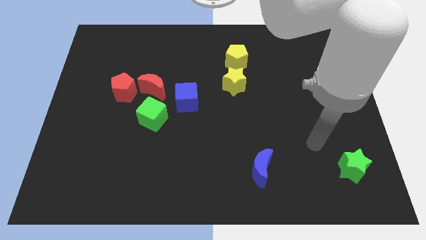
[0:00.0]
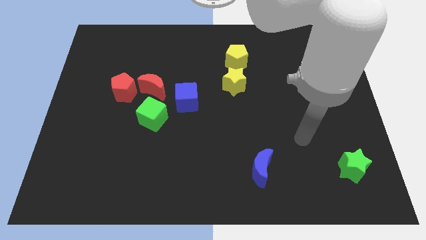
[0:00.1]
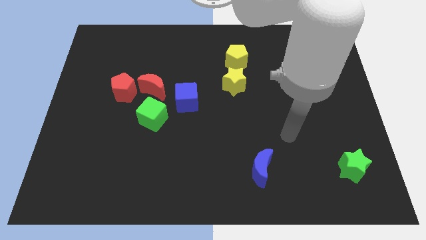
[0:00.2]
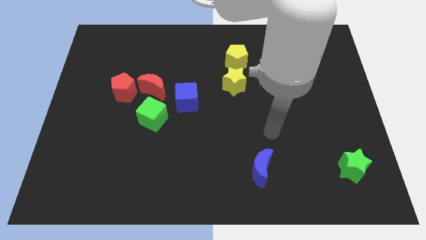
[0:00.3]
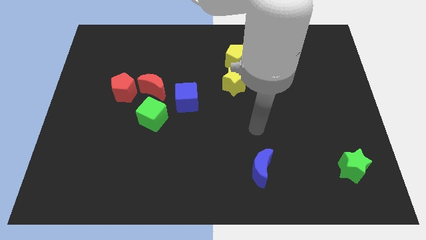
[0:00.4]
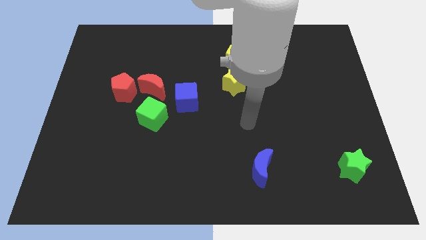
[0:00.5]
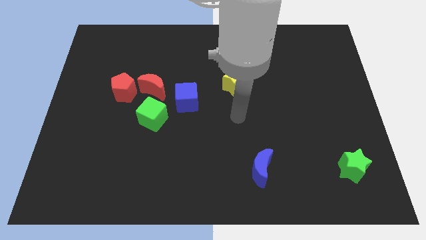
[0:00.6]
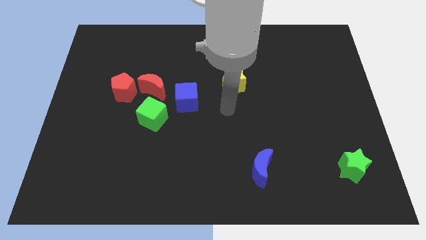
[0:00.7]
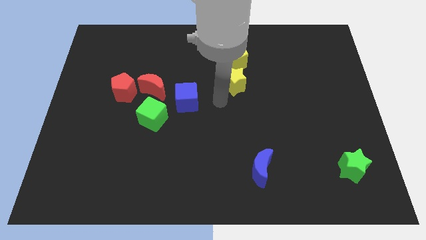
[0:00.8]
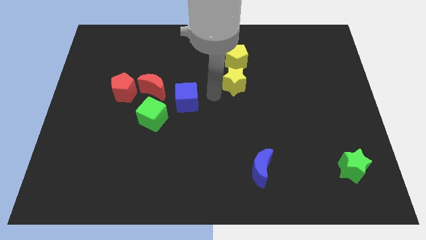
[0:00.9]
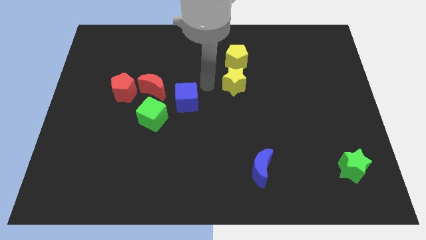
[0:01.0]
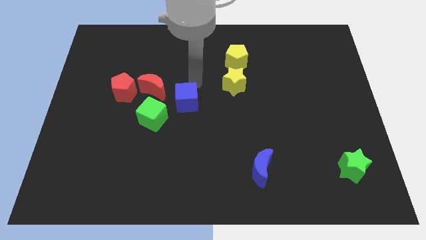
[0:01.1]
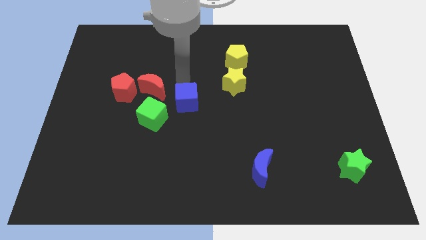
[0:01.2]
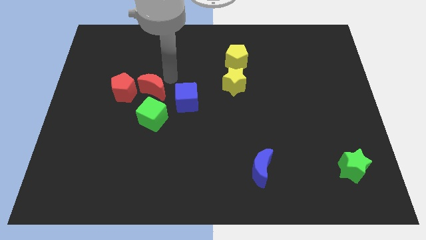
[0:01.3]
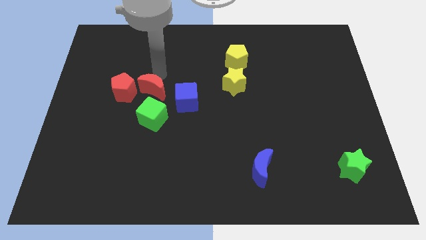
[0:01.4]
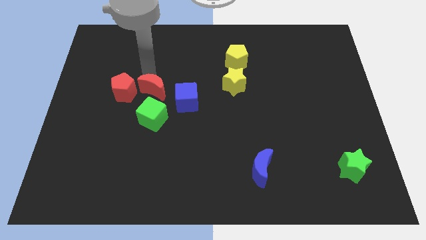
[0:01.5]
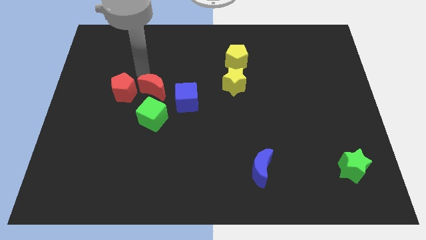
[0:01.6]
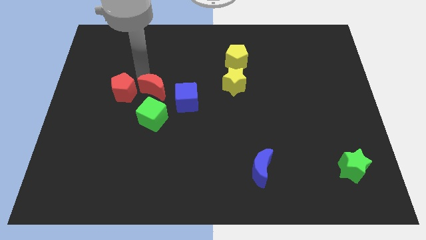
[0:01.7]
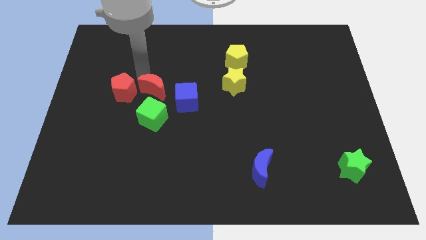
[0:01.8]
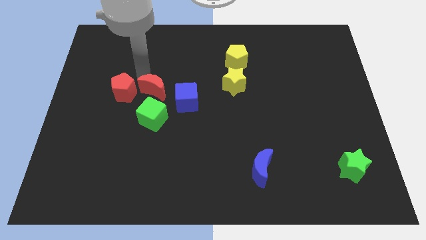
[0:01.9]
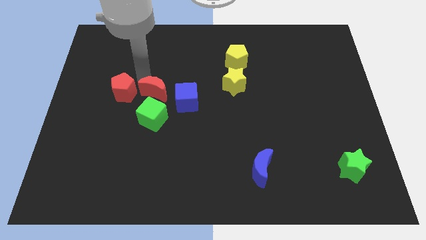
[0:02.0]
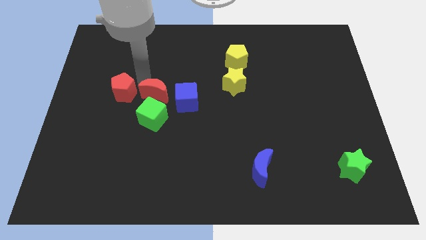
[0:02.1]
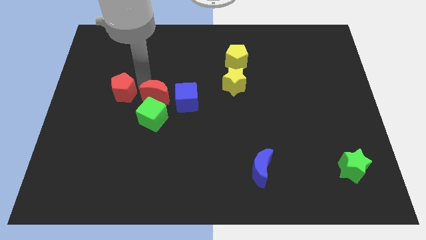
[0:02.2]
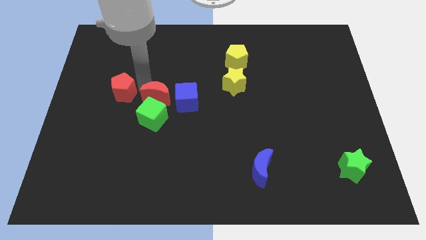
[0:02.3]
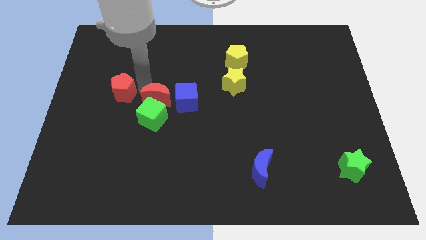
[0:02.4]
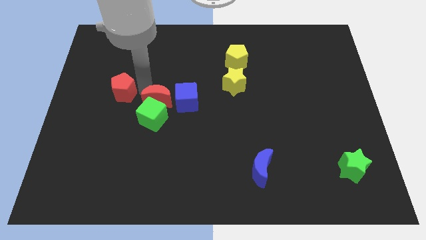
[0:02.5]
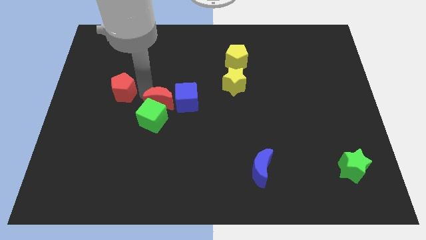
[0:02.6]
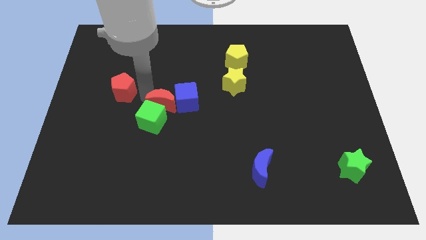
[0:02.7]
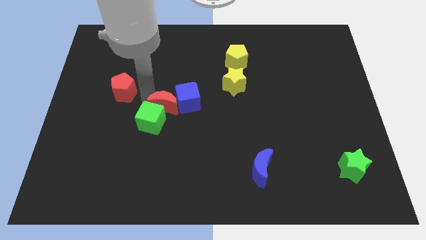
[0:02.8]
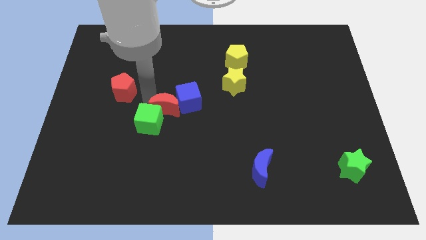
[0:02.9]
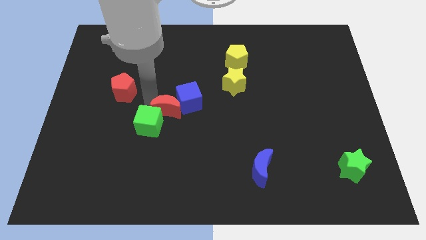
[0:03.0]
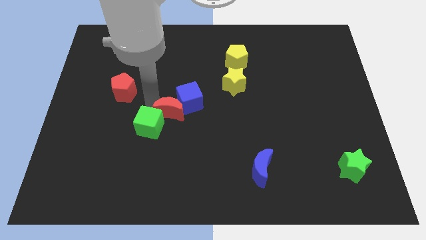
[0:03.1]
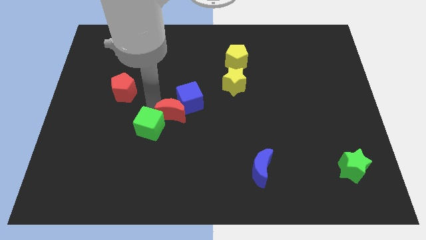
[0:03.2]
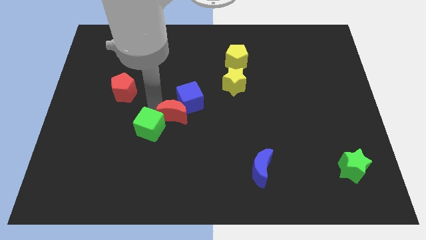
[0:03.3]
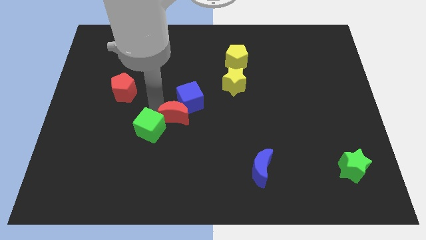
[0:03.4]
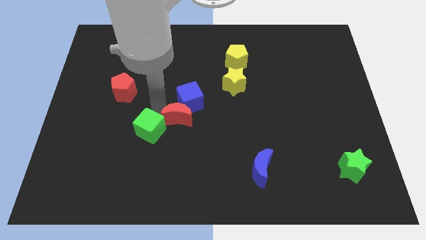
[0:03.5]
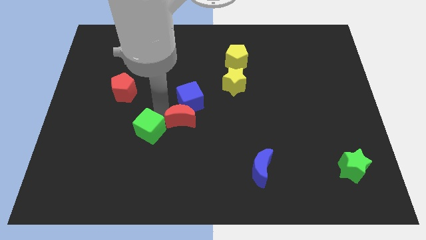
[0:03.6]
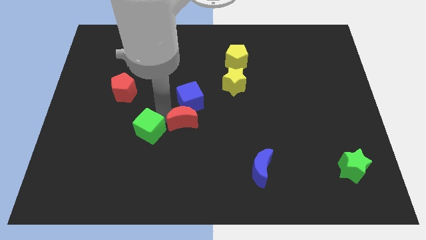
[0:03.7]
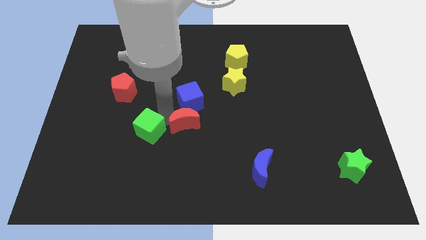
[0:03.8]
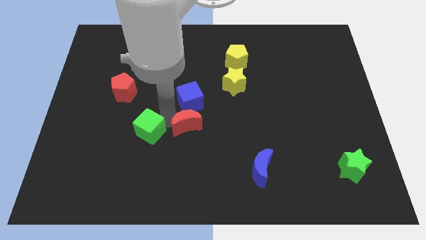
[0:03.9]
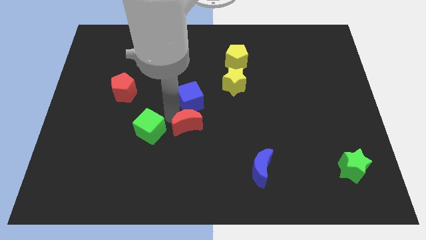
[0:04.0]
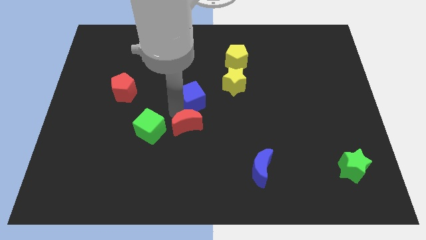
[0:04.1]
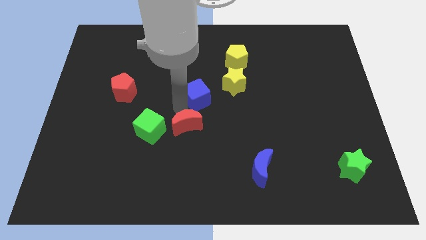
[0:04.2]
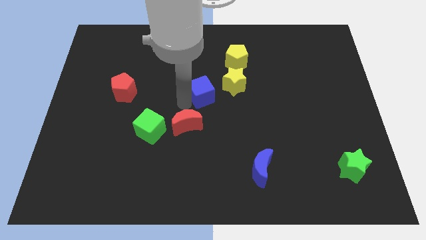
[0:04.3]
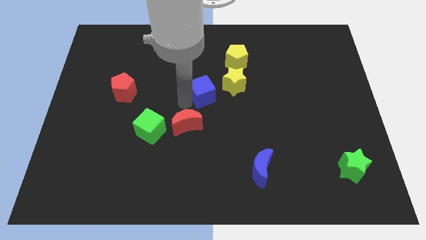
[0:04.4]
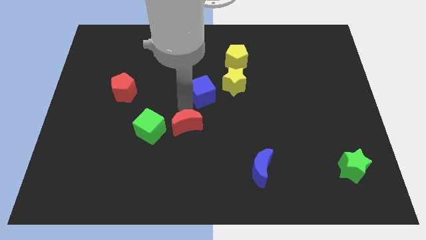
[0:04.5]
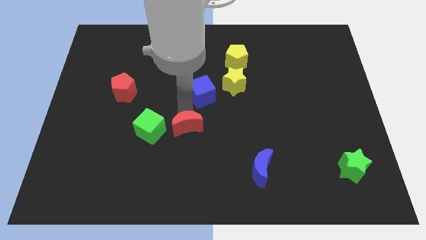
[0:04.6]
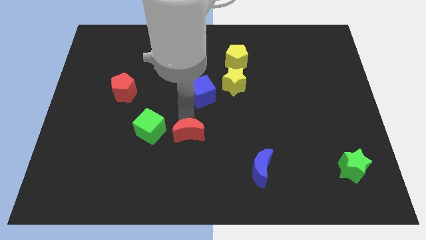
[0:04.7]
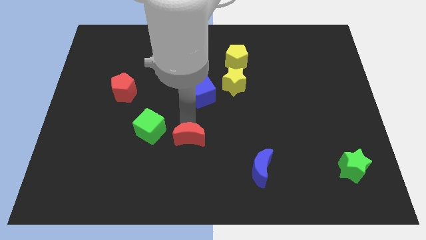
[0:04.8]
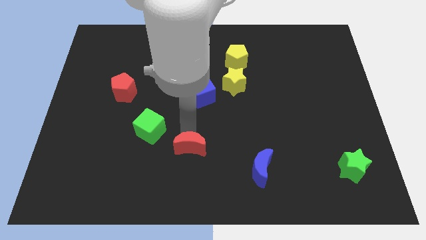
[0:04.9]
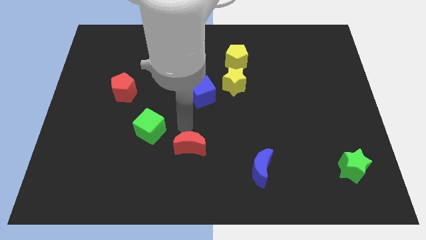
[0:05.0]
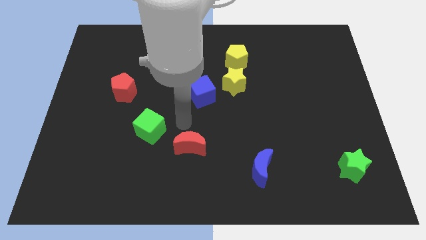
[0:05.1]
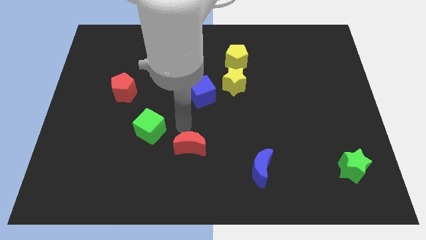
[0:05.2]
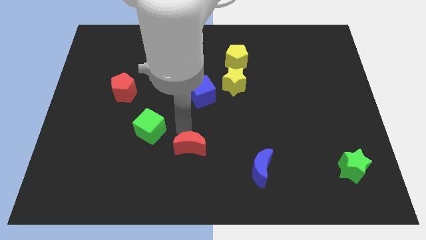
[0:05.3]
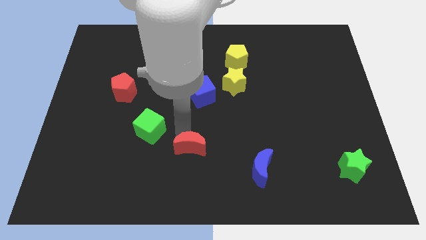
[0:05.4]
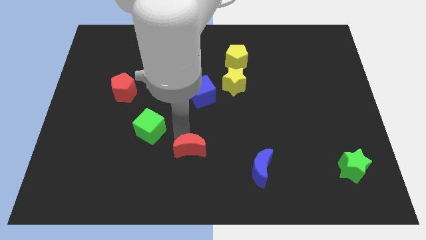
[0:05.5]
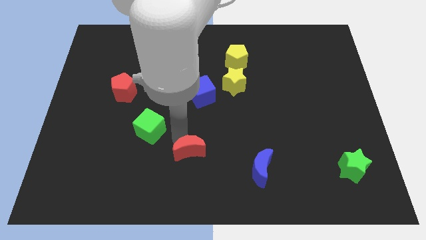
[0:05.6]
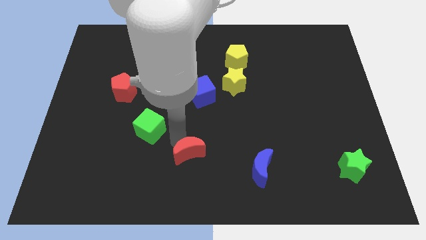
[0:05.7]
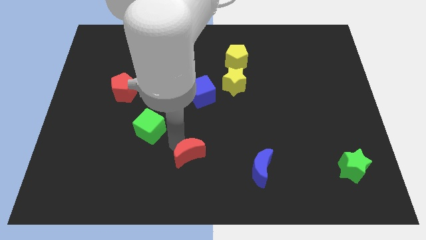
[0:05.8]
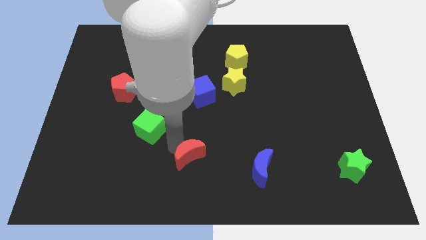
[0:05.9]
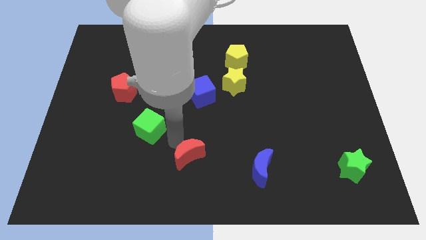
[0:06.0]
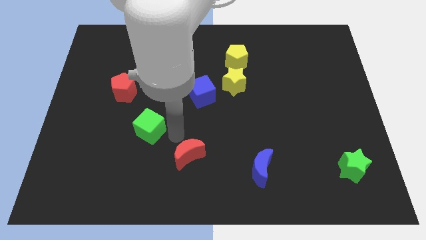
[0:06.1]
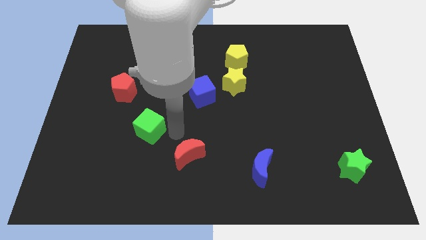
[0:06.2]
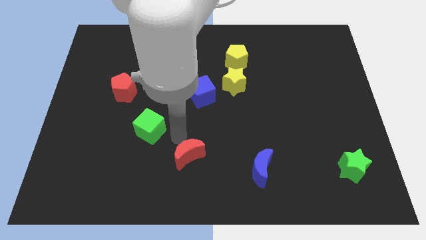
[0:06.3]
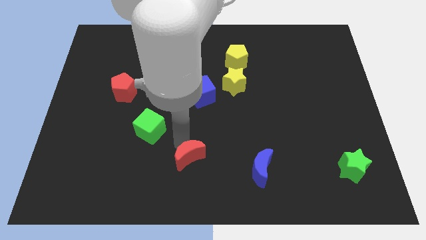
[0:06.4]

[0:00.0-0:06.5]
push the red moon to the bottom

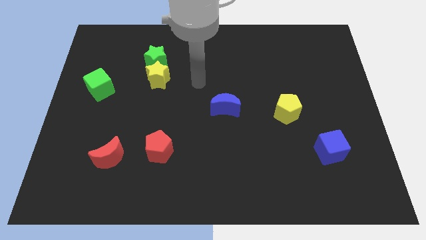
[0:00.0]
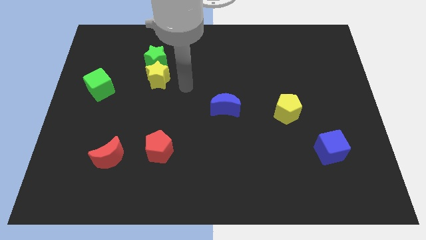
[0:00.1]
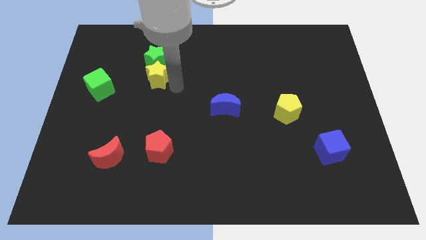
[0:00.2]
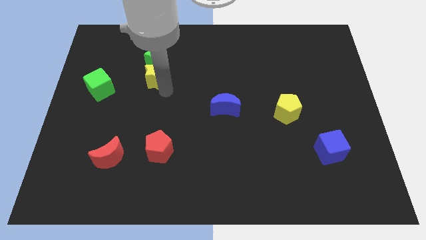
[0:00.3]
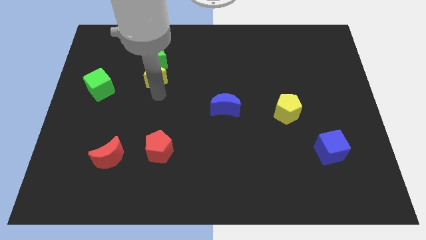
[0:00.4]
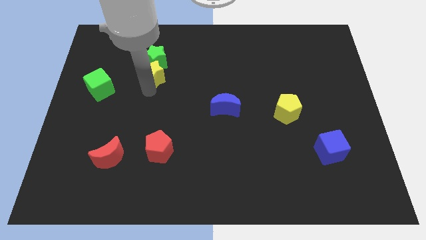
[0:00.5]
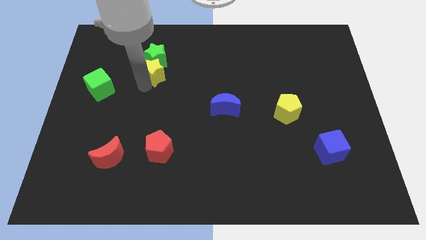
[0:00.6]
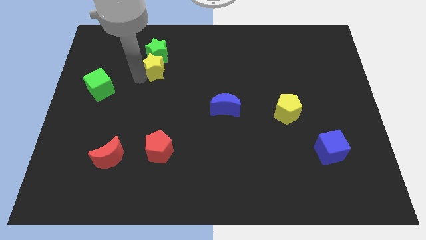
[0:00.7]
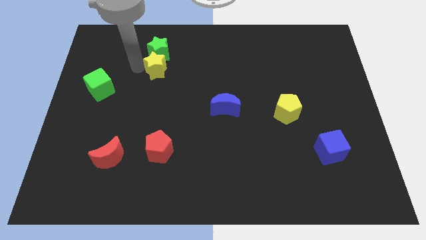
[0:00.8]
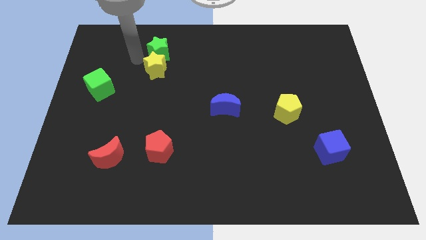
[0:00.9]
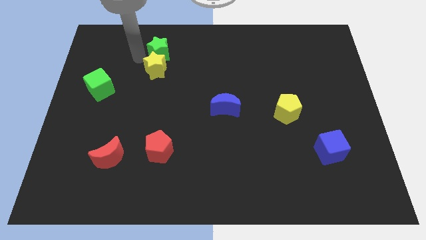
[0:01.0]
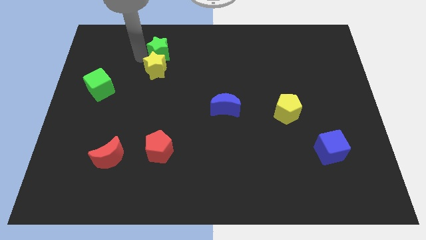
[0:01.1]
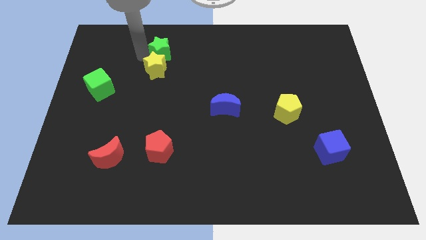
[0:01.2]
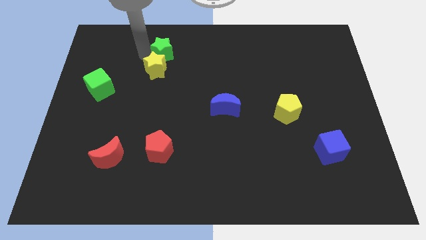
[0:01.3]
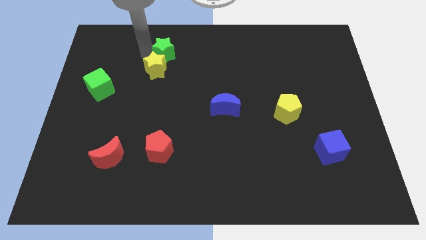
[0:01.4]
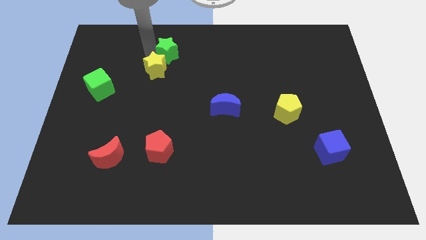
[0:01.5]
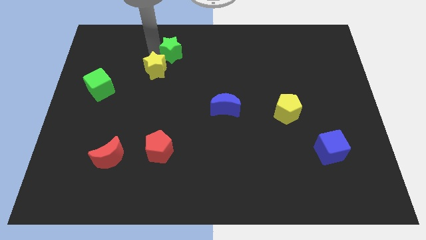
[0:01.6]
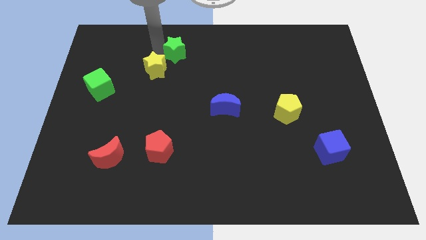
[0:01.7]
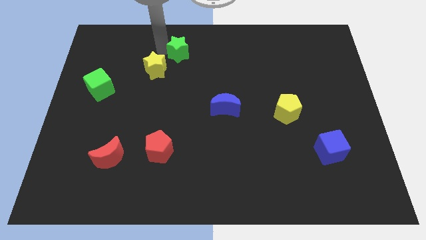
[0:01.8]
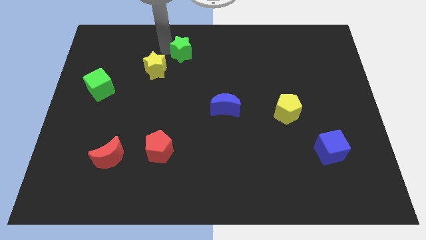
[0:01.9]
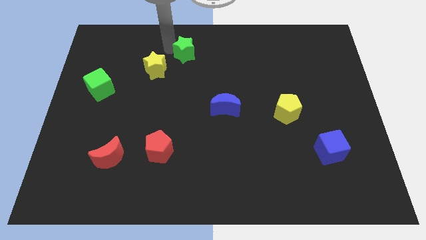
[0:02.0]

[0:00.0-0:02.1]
slide the green star to the top side
